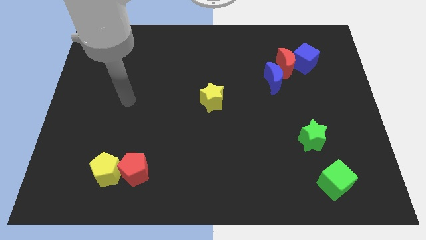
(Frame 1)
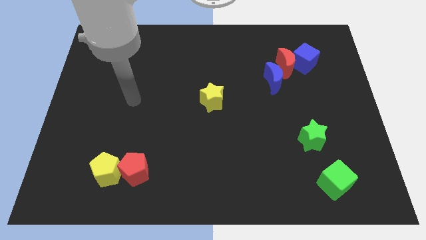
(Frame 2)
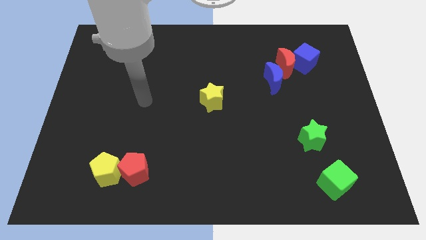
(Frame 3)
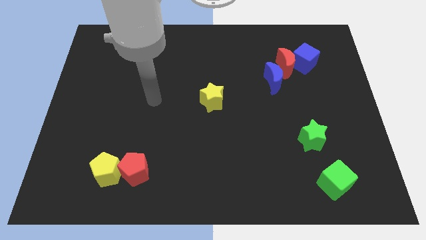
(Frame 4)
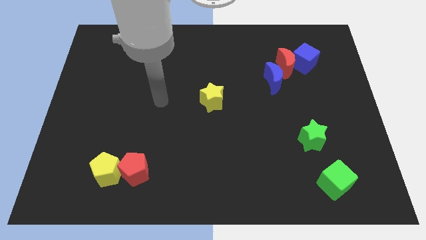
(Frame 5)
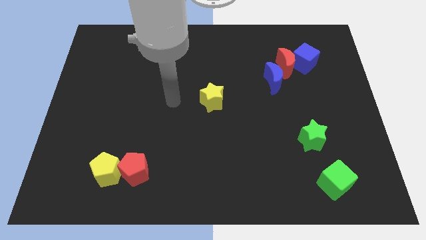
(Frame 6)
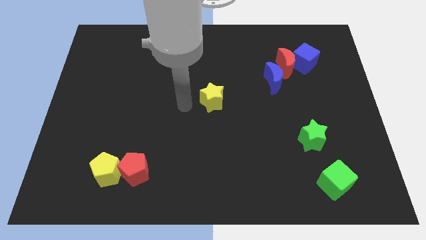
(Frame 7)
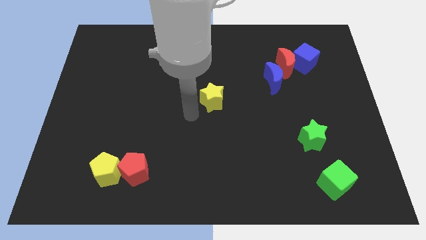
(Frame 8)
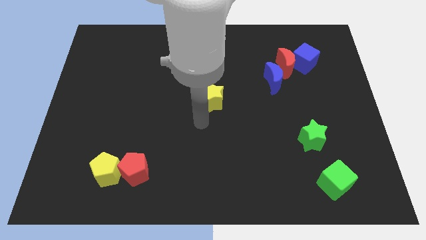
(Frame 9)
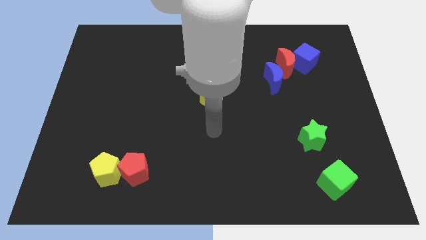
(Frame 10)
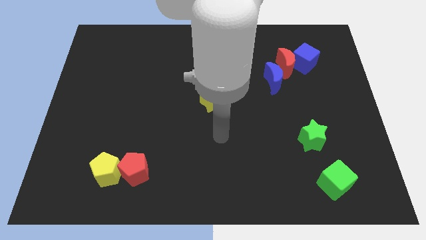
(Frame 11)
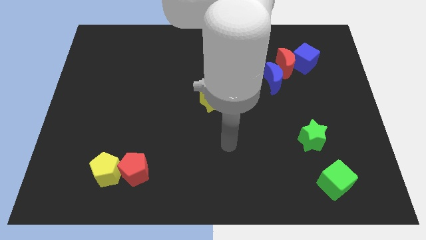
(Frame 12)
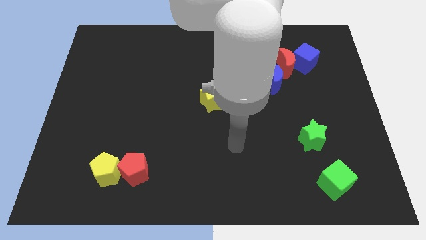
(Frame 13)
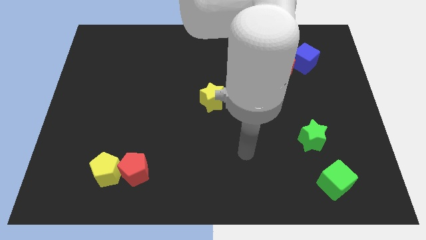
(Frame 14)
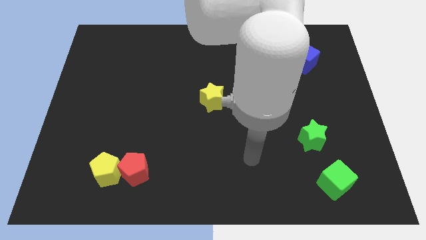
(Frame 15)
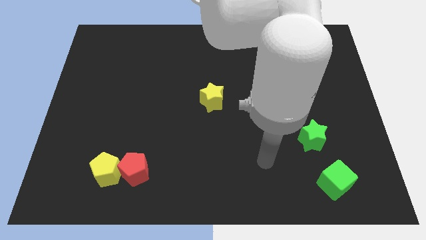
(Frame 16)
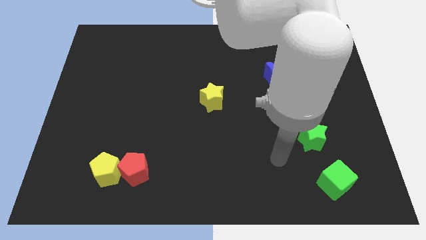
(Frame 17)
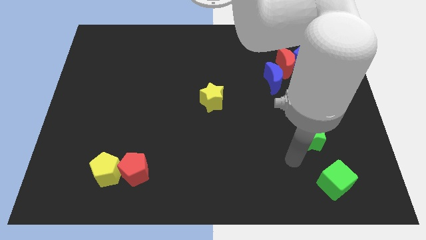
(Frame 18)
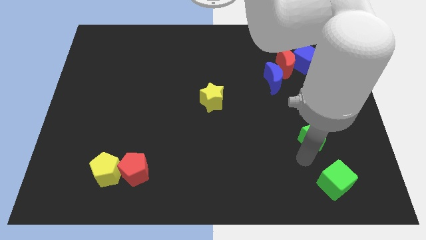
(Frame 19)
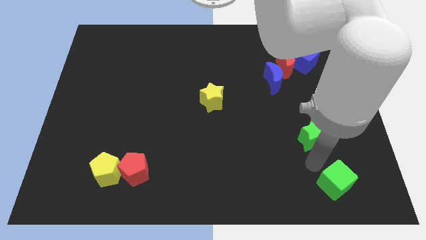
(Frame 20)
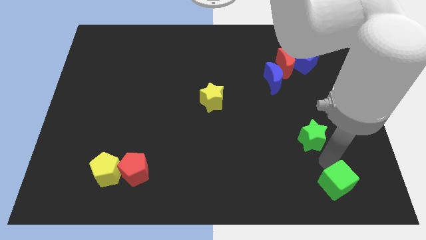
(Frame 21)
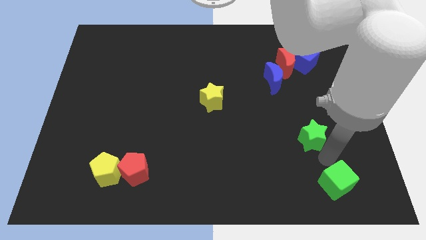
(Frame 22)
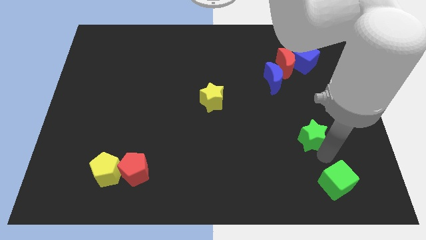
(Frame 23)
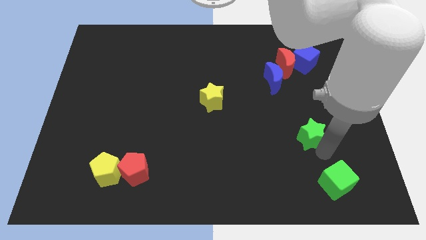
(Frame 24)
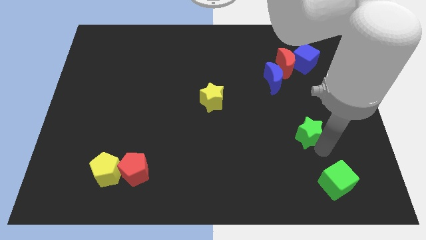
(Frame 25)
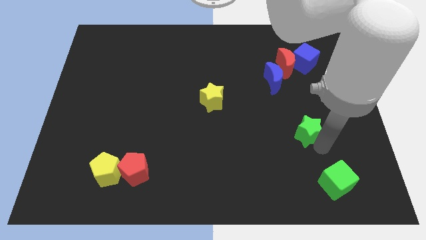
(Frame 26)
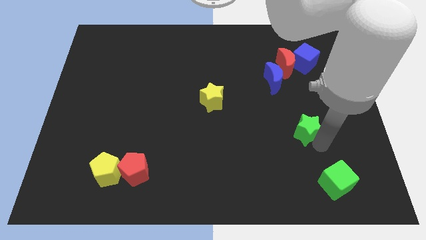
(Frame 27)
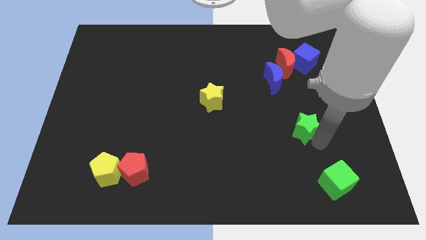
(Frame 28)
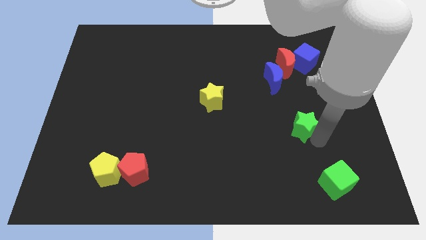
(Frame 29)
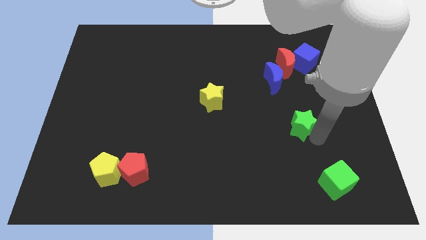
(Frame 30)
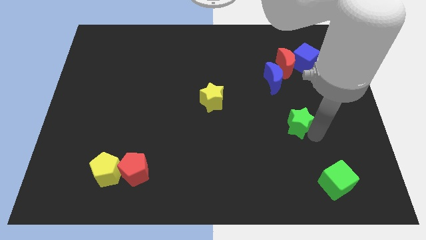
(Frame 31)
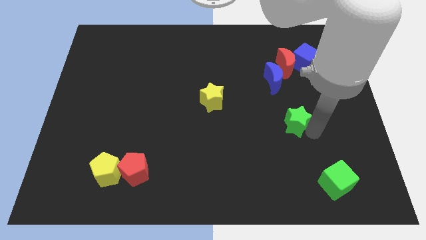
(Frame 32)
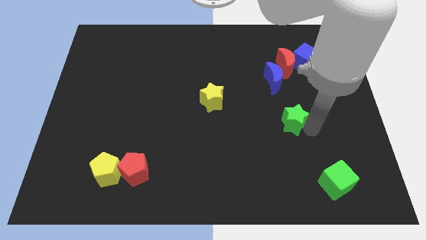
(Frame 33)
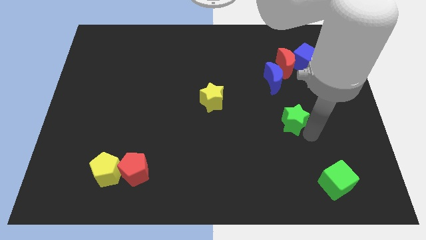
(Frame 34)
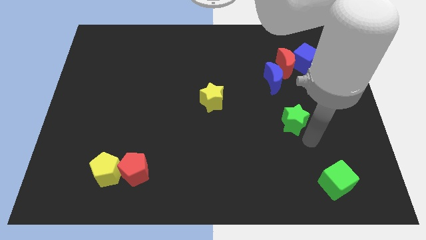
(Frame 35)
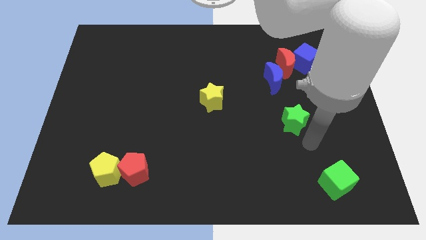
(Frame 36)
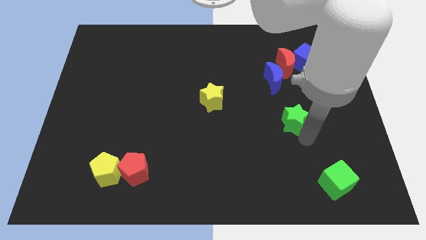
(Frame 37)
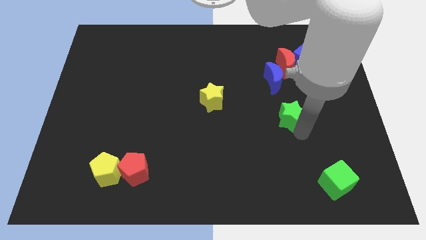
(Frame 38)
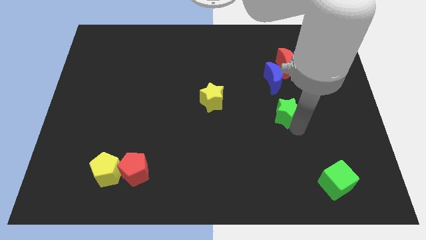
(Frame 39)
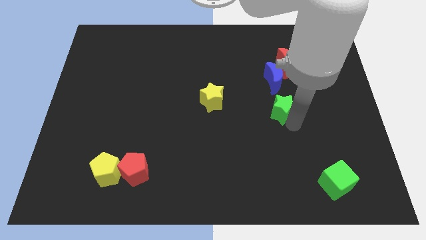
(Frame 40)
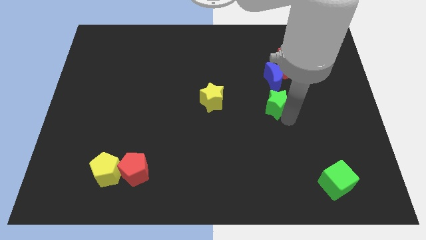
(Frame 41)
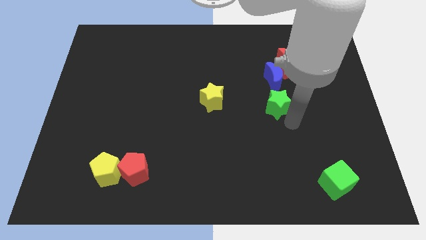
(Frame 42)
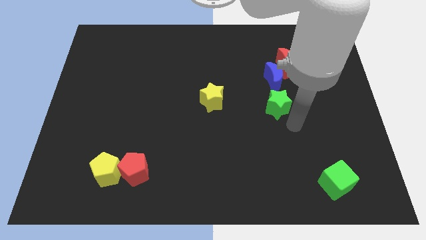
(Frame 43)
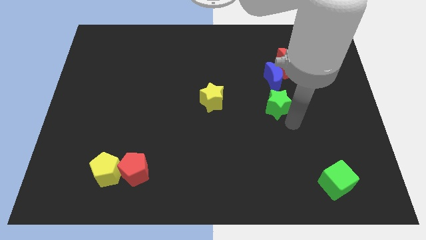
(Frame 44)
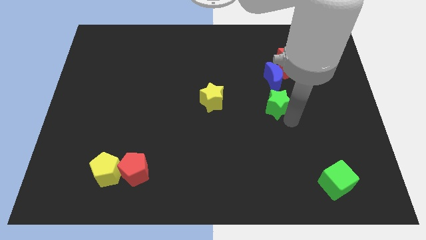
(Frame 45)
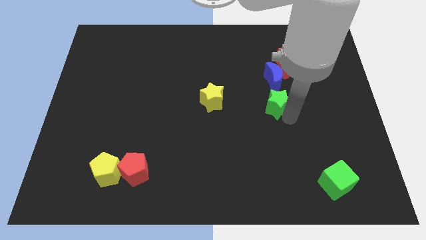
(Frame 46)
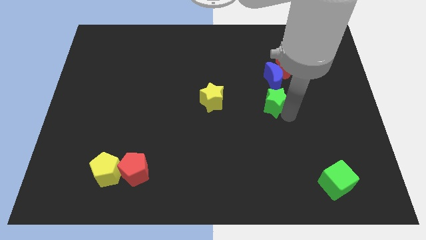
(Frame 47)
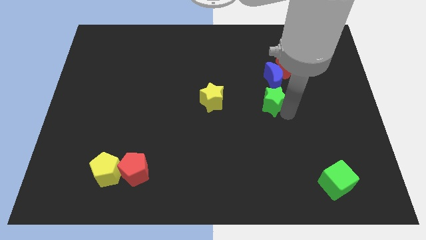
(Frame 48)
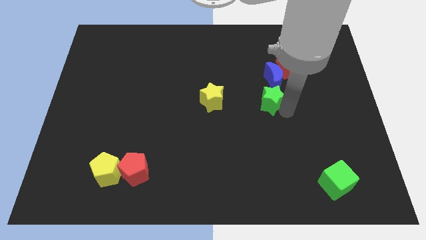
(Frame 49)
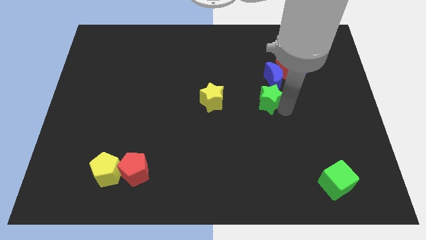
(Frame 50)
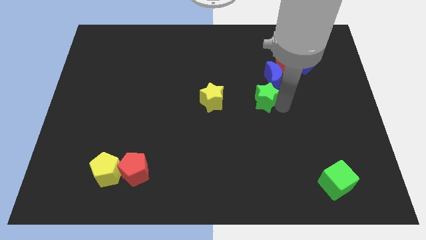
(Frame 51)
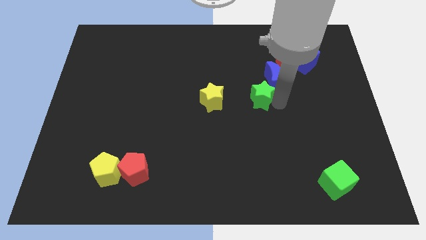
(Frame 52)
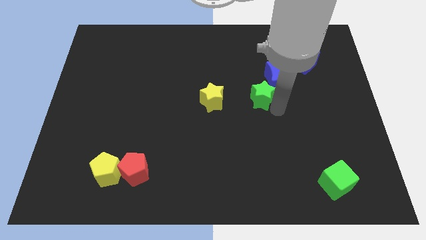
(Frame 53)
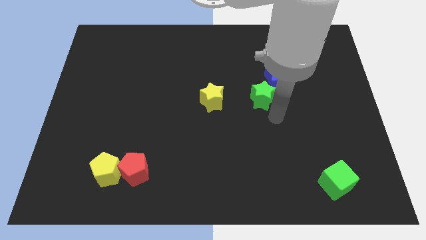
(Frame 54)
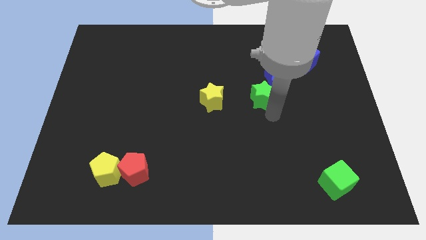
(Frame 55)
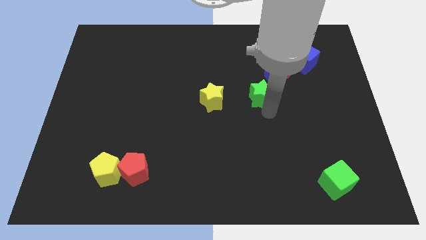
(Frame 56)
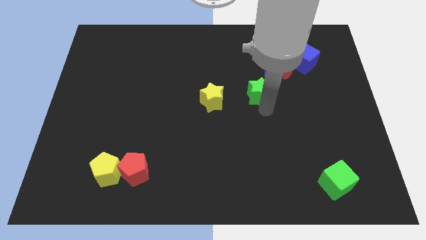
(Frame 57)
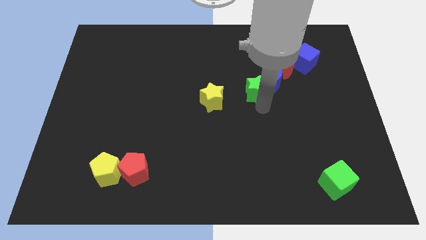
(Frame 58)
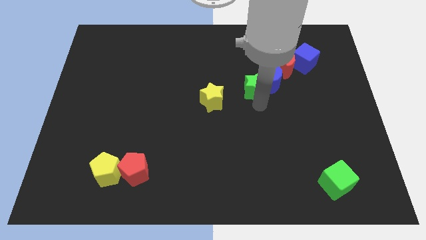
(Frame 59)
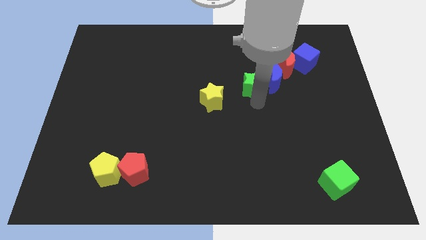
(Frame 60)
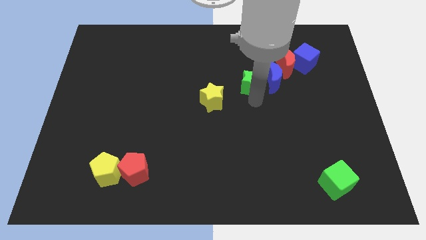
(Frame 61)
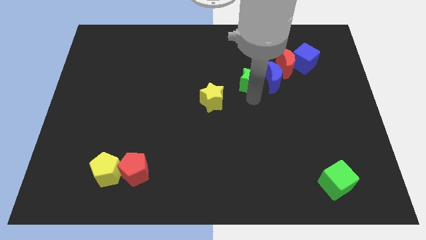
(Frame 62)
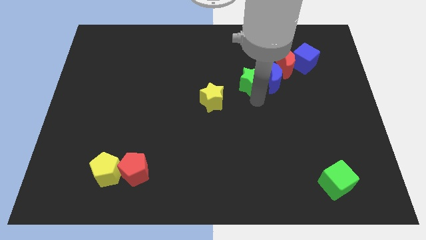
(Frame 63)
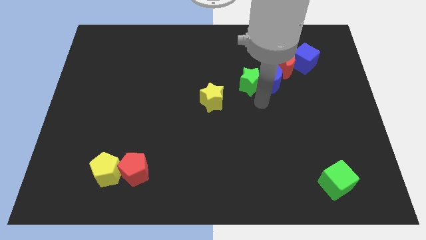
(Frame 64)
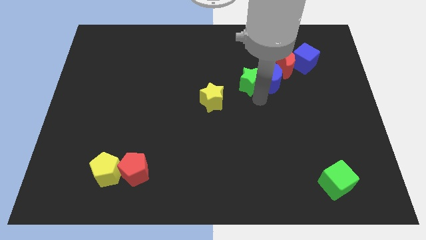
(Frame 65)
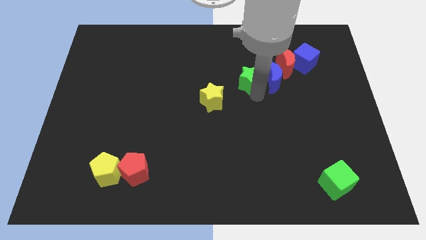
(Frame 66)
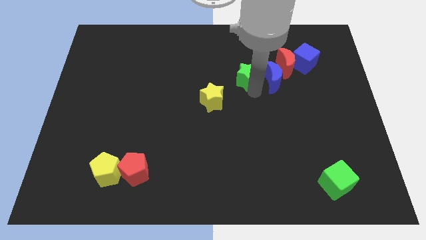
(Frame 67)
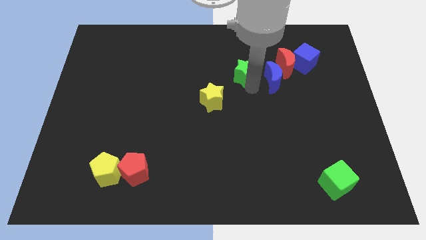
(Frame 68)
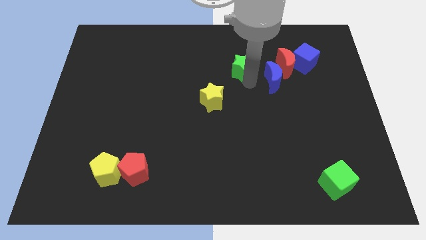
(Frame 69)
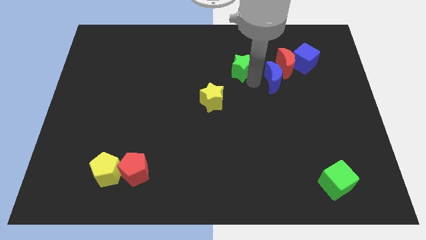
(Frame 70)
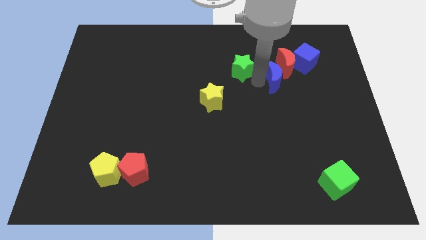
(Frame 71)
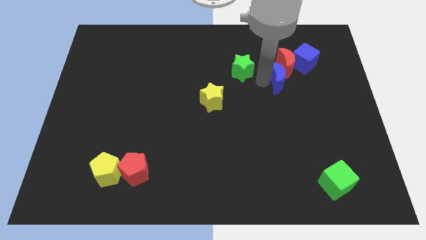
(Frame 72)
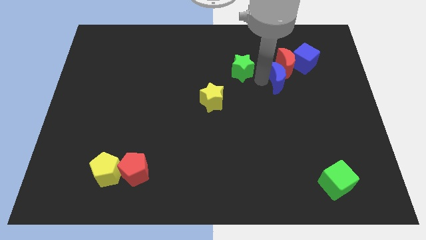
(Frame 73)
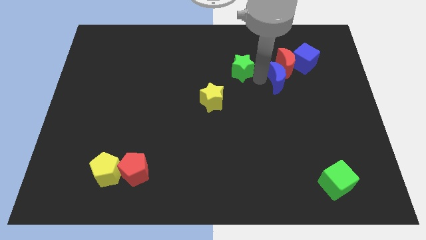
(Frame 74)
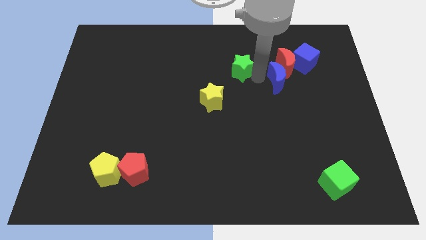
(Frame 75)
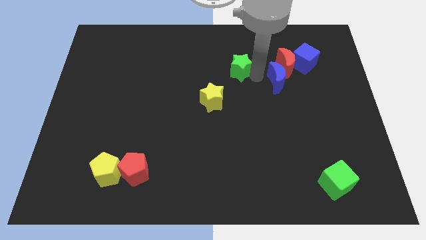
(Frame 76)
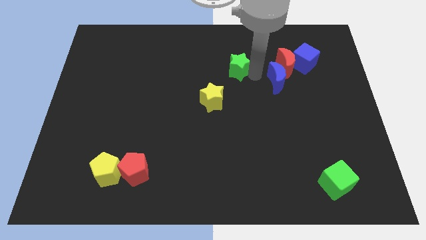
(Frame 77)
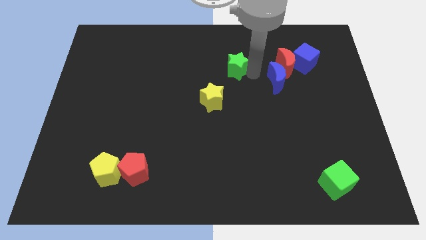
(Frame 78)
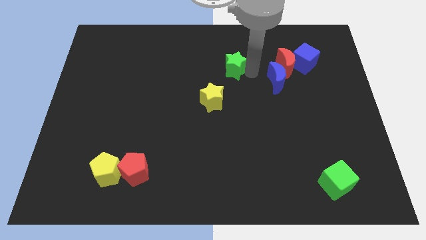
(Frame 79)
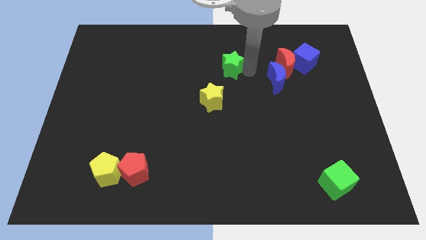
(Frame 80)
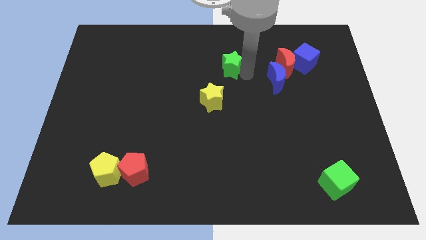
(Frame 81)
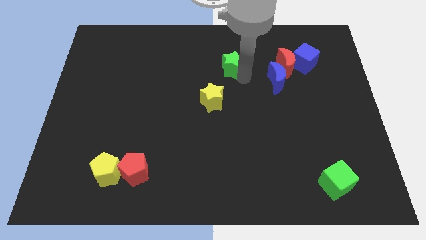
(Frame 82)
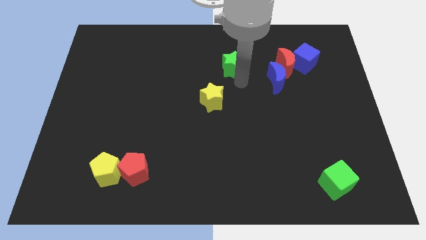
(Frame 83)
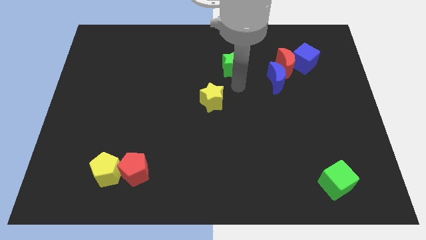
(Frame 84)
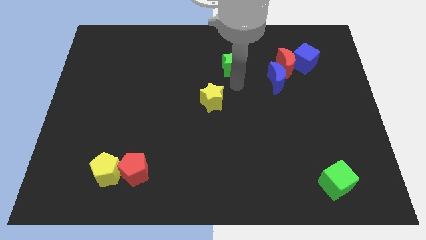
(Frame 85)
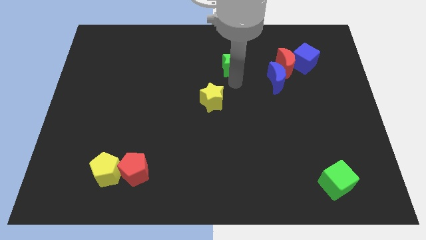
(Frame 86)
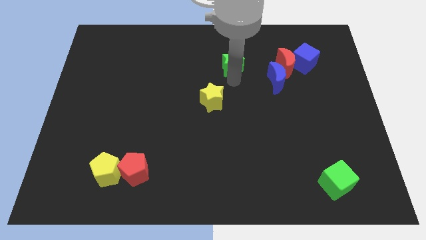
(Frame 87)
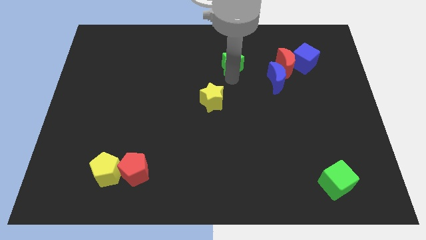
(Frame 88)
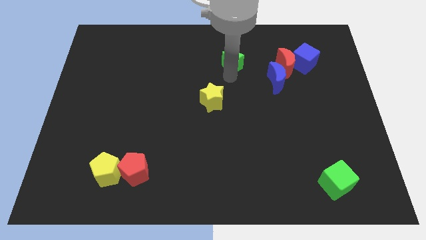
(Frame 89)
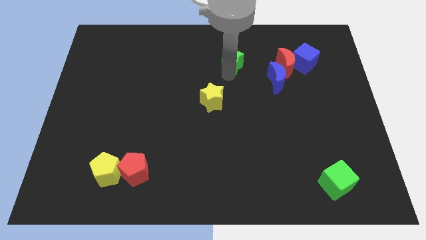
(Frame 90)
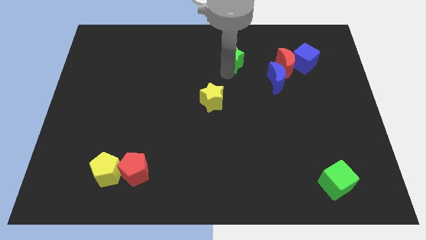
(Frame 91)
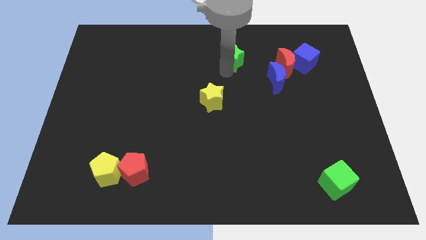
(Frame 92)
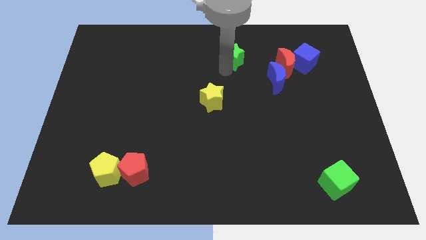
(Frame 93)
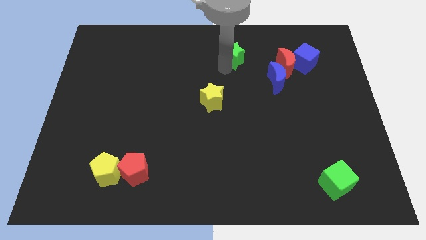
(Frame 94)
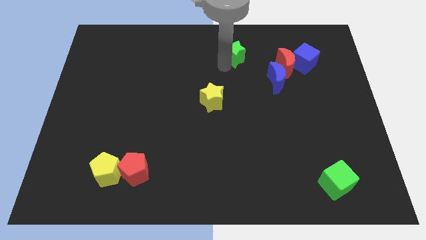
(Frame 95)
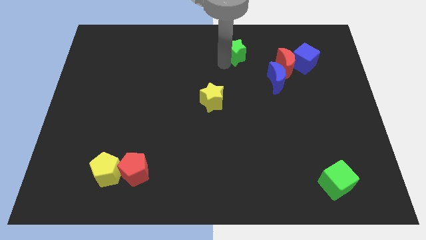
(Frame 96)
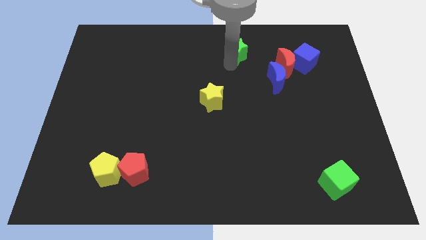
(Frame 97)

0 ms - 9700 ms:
move the green star to the top side
